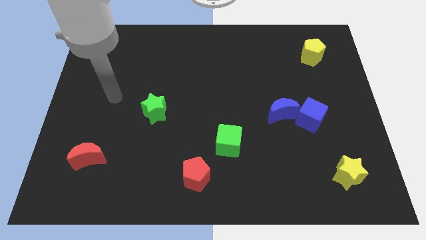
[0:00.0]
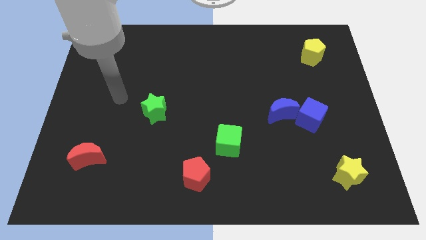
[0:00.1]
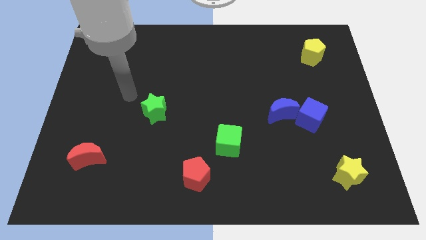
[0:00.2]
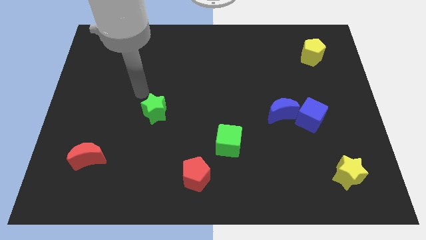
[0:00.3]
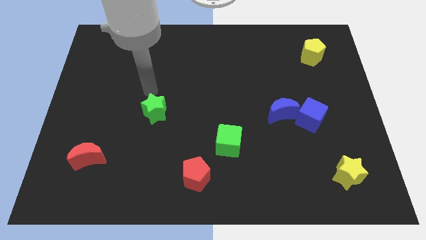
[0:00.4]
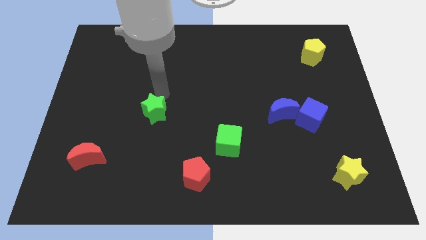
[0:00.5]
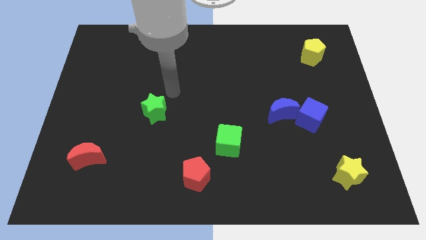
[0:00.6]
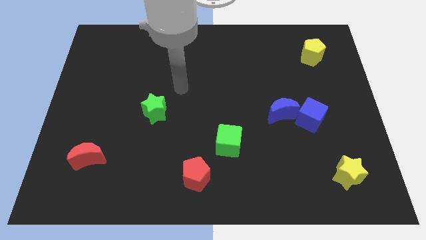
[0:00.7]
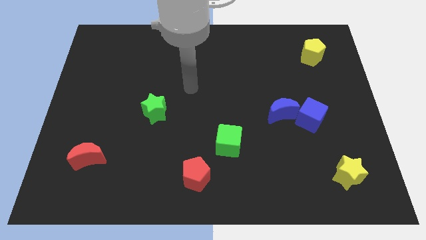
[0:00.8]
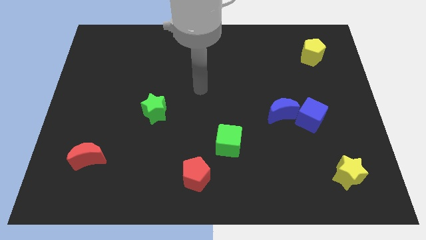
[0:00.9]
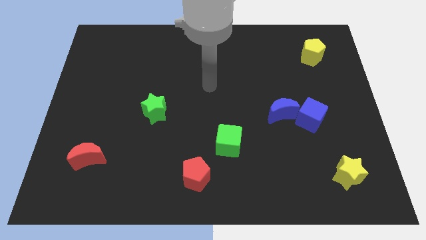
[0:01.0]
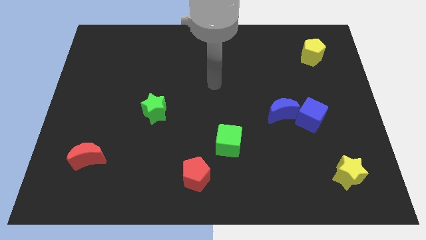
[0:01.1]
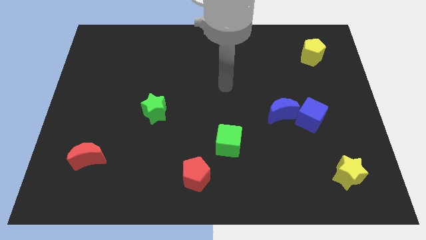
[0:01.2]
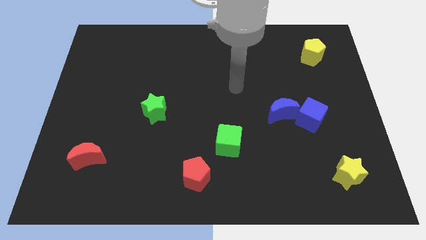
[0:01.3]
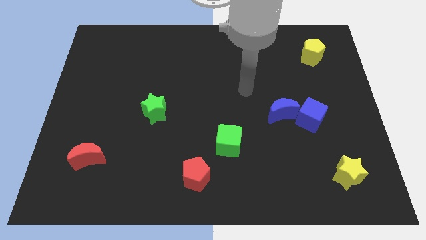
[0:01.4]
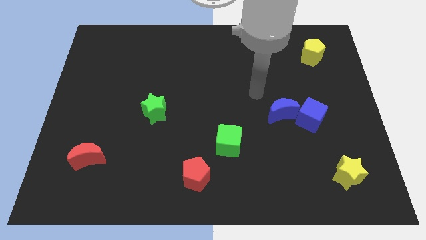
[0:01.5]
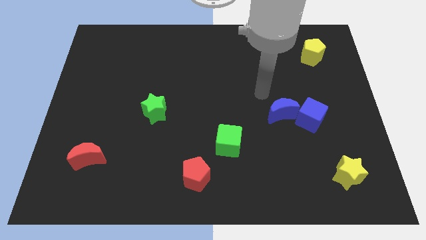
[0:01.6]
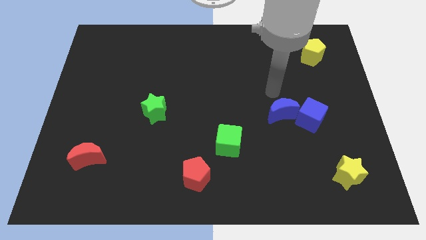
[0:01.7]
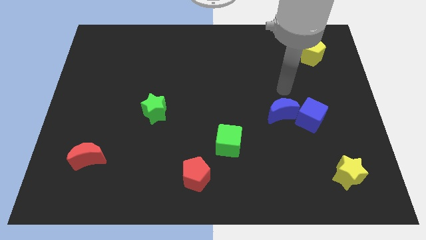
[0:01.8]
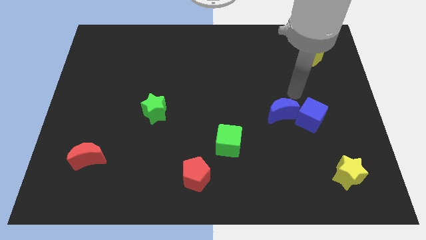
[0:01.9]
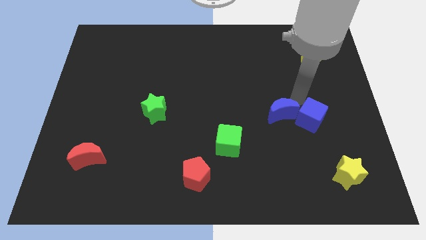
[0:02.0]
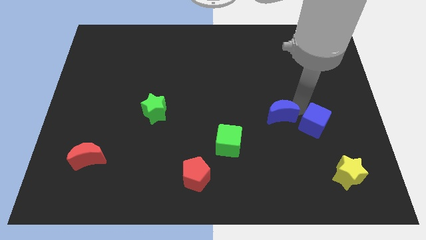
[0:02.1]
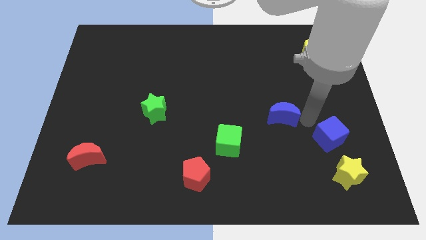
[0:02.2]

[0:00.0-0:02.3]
pull the blue moon apart from the blue cube

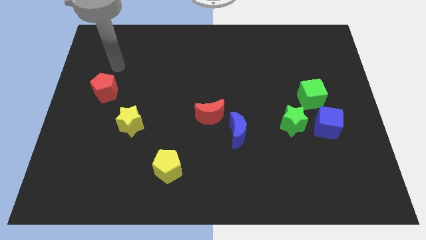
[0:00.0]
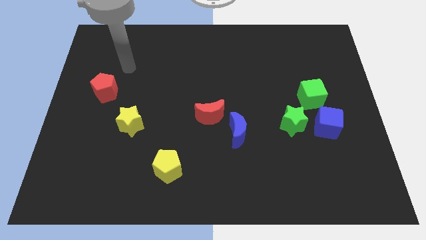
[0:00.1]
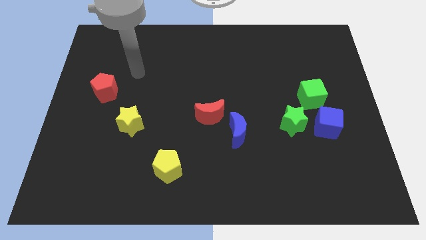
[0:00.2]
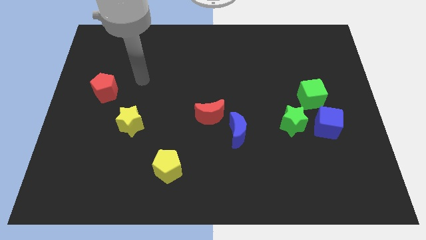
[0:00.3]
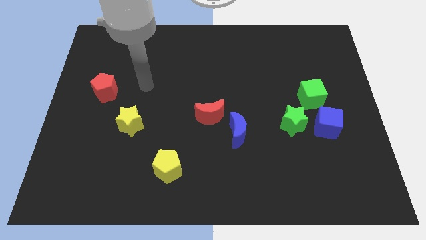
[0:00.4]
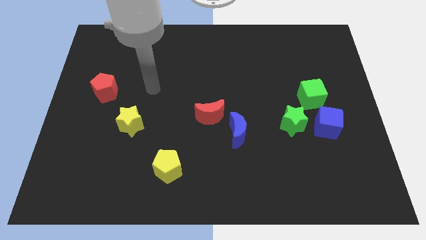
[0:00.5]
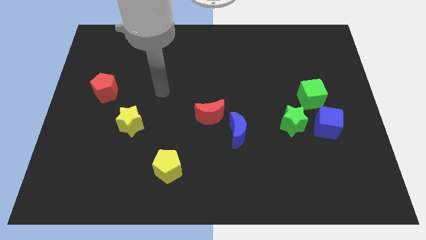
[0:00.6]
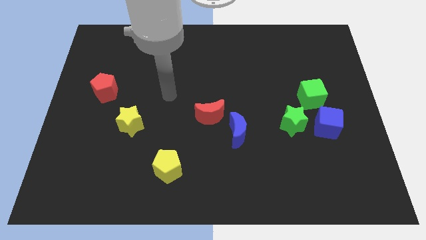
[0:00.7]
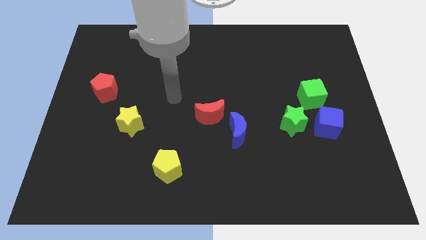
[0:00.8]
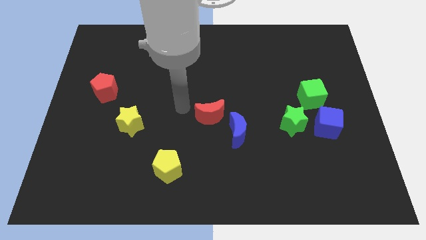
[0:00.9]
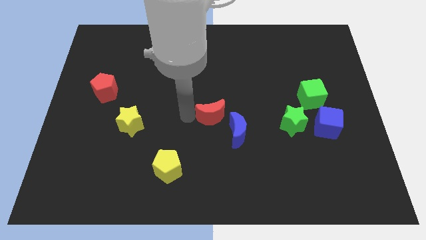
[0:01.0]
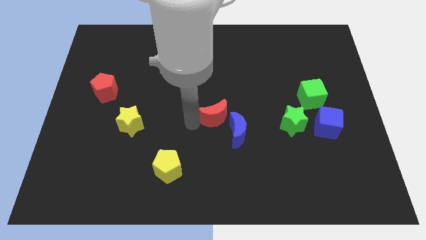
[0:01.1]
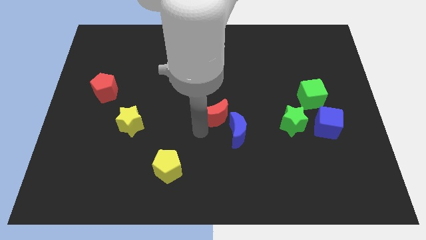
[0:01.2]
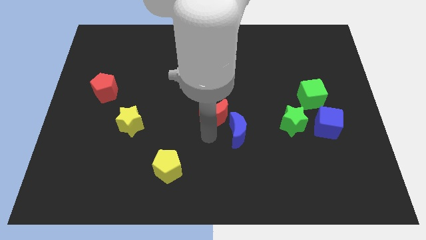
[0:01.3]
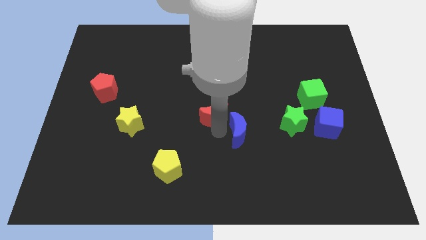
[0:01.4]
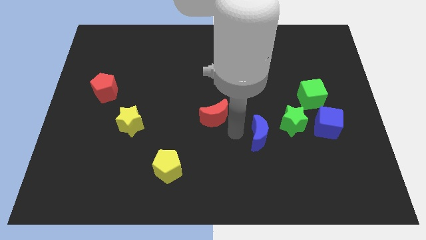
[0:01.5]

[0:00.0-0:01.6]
pull the red moon apart from the blue moon

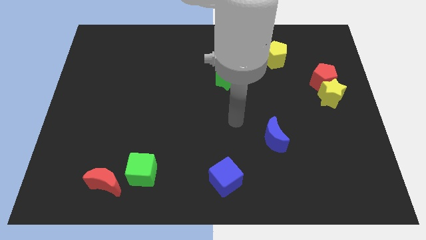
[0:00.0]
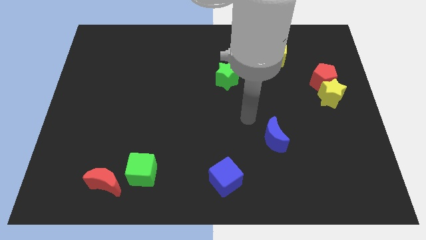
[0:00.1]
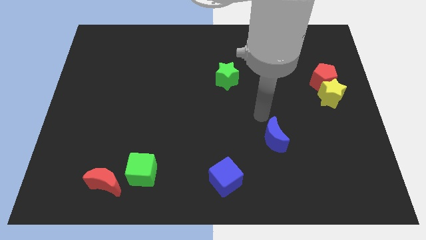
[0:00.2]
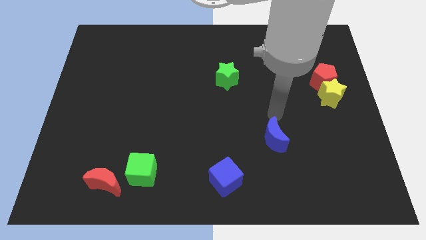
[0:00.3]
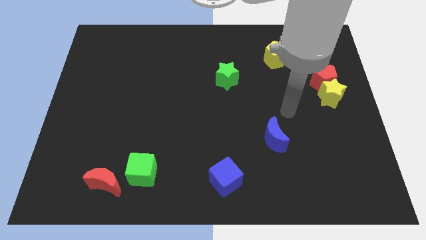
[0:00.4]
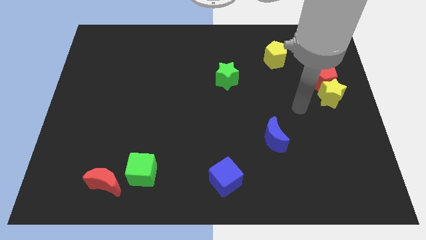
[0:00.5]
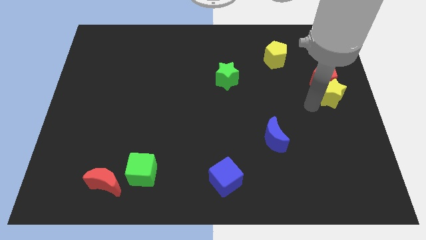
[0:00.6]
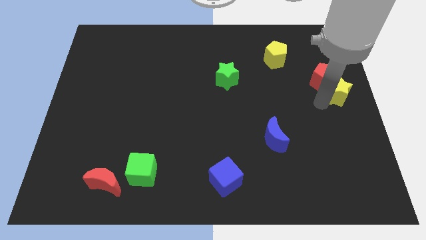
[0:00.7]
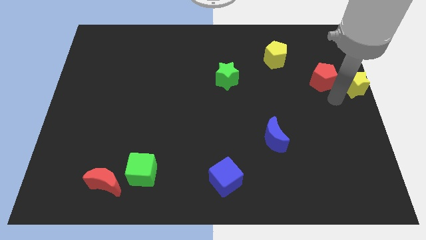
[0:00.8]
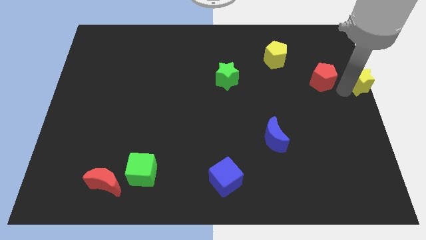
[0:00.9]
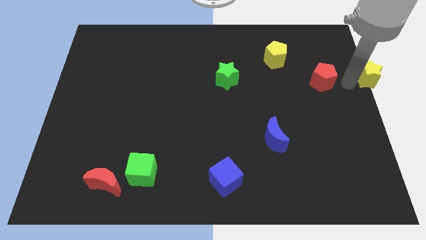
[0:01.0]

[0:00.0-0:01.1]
pull the red pentagon apart from the yellow star

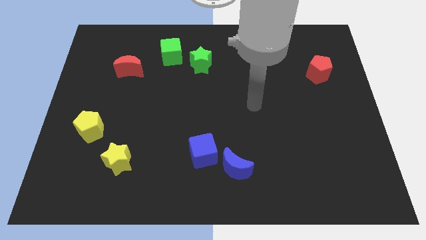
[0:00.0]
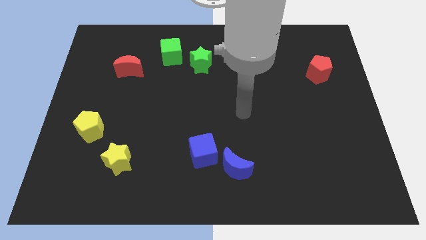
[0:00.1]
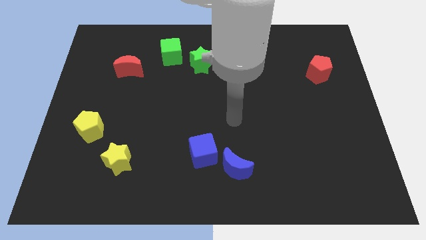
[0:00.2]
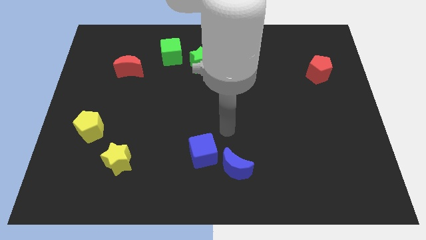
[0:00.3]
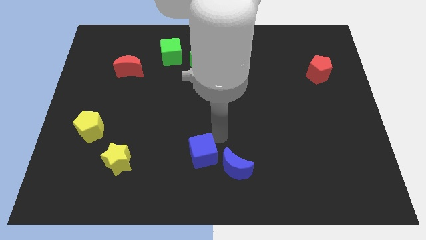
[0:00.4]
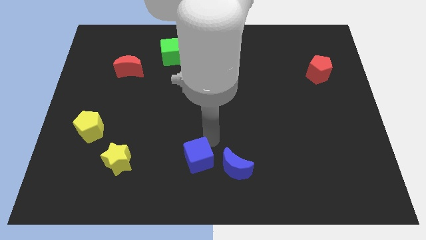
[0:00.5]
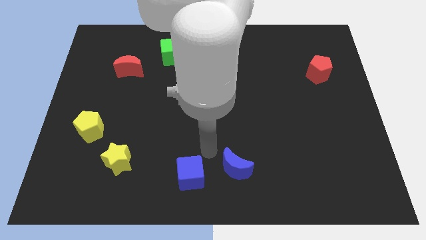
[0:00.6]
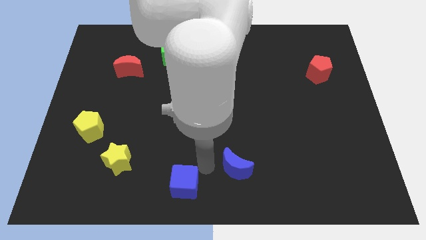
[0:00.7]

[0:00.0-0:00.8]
move the blue moon away from the blue cube

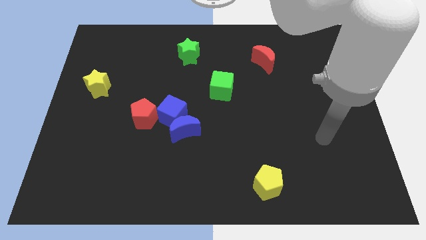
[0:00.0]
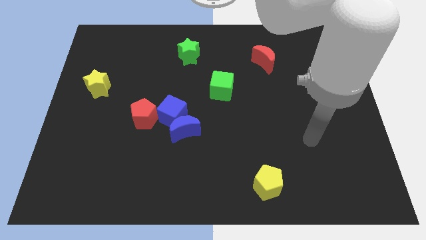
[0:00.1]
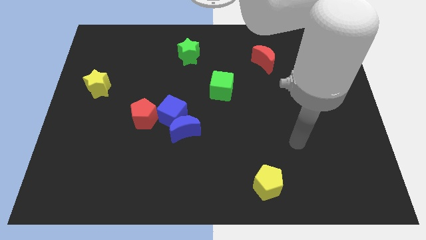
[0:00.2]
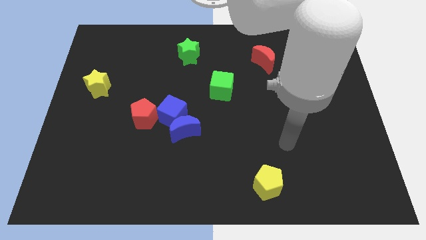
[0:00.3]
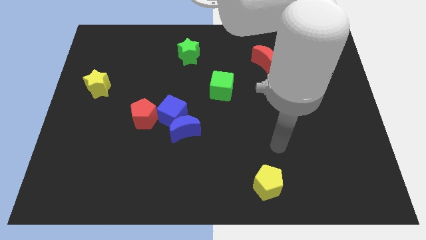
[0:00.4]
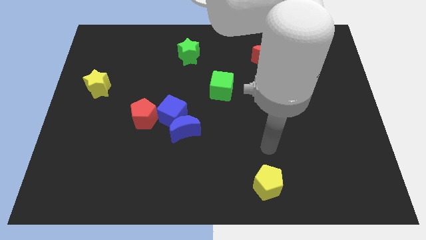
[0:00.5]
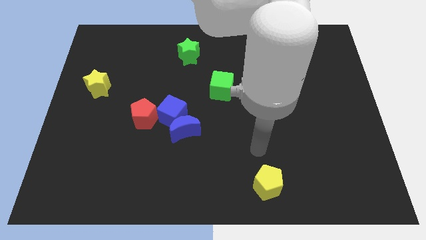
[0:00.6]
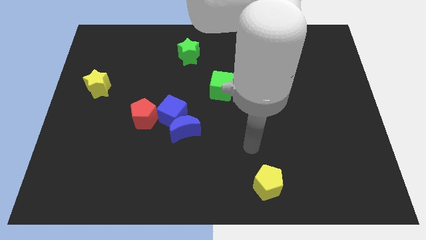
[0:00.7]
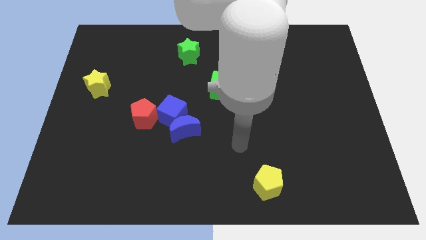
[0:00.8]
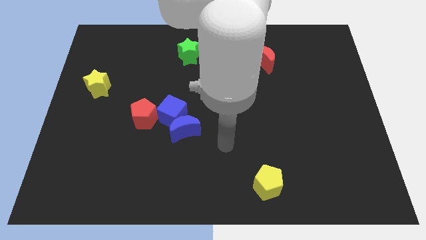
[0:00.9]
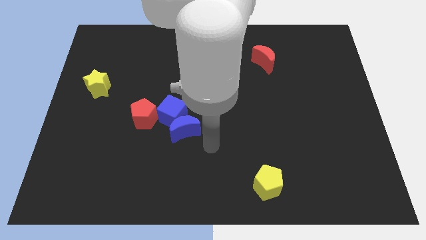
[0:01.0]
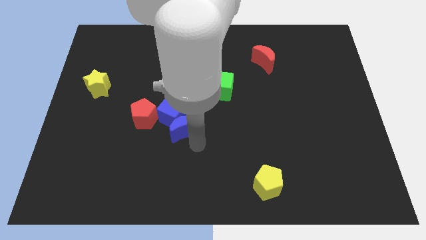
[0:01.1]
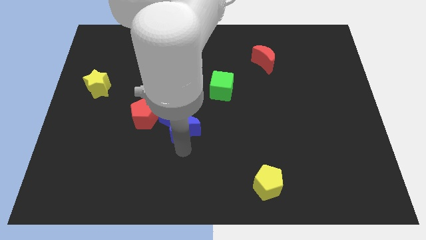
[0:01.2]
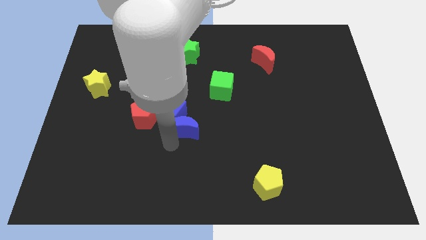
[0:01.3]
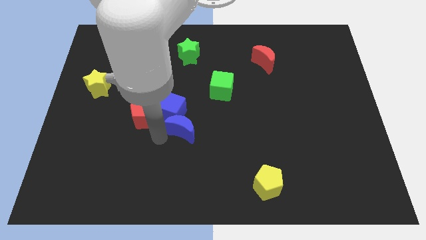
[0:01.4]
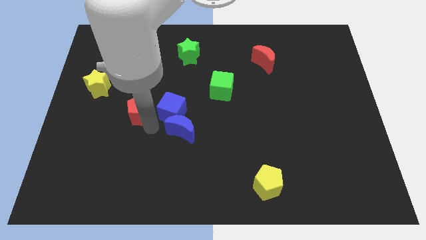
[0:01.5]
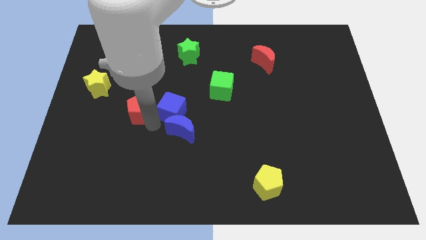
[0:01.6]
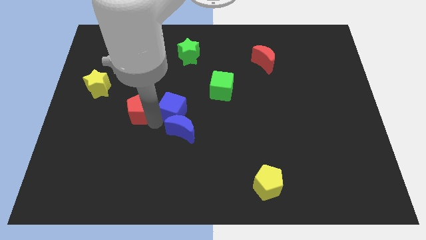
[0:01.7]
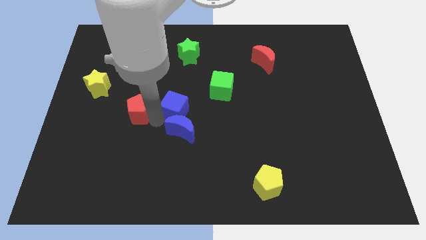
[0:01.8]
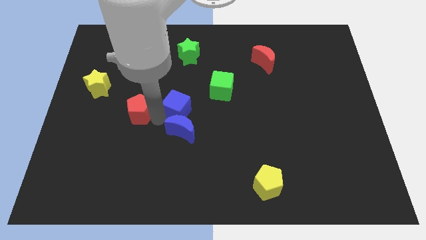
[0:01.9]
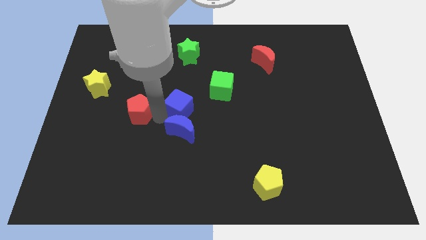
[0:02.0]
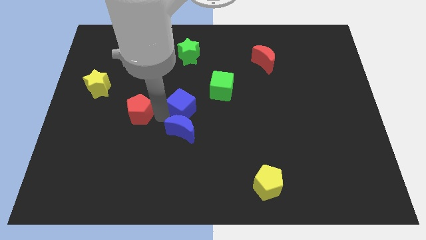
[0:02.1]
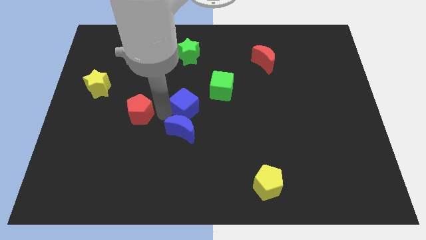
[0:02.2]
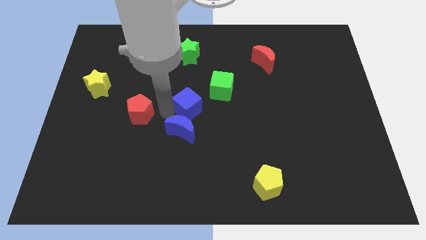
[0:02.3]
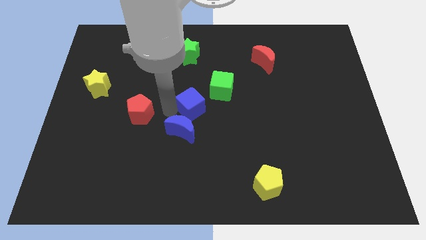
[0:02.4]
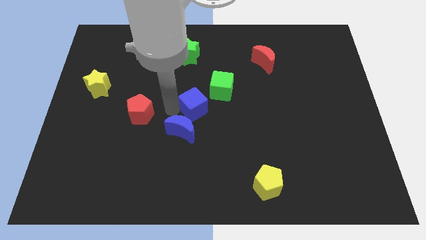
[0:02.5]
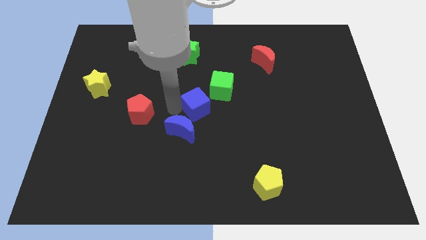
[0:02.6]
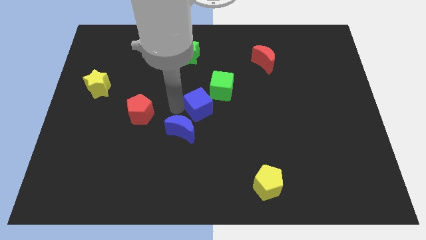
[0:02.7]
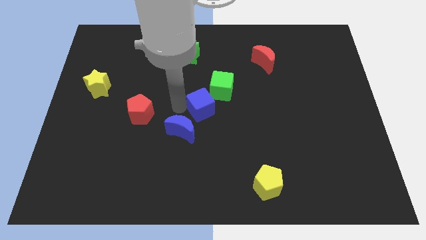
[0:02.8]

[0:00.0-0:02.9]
pull the blue cube apart from the blue moon and red pentagon

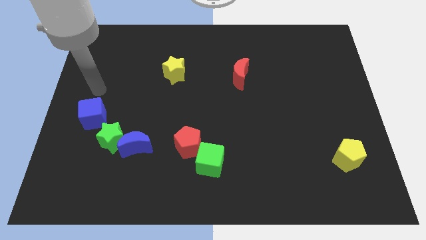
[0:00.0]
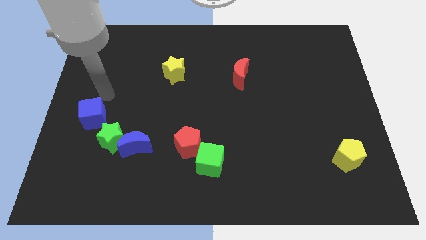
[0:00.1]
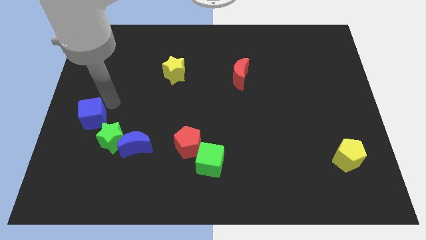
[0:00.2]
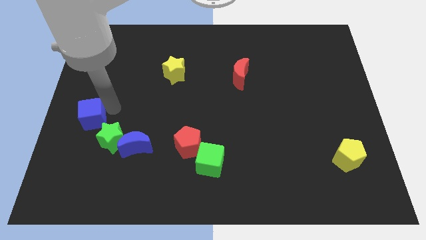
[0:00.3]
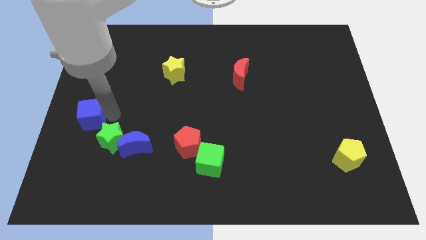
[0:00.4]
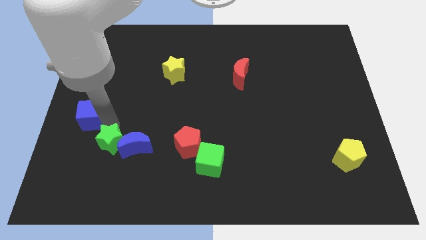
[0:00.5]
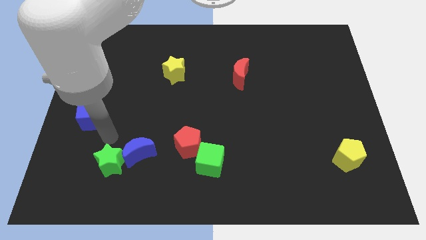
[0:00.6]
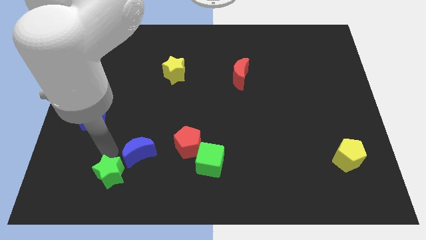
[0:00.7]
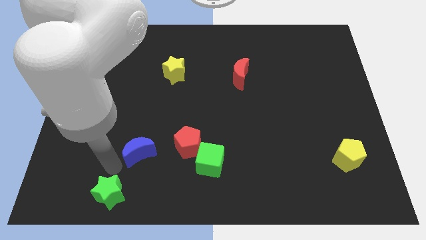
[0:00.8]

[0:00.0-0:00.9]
move the blue moon away from the green star
